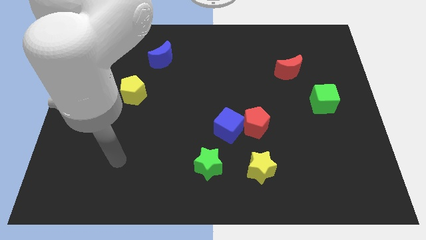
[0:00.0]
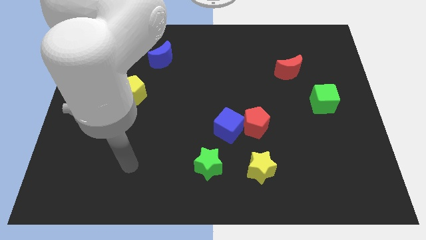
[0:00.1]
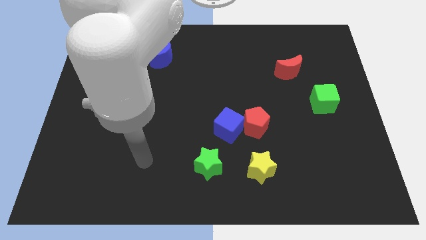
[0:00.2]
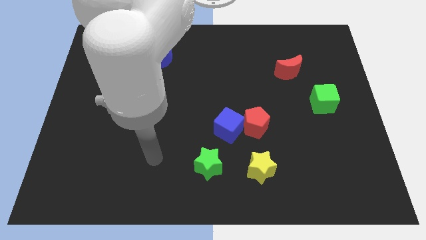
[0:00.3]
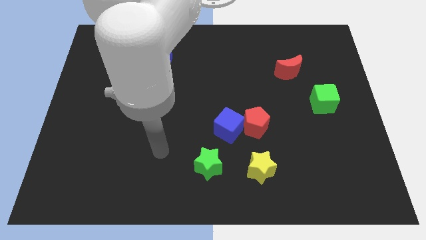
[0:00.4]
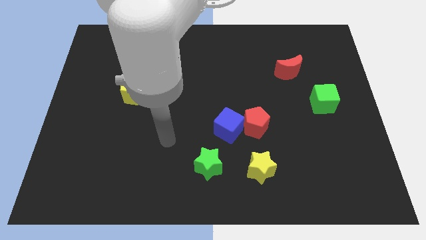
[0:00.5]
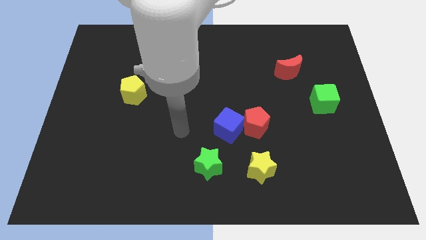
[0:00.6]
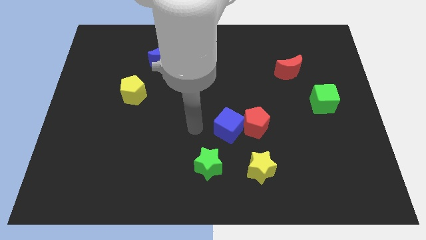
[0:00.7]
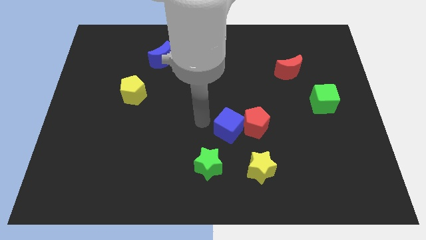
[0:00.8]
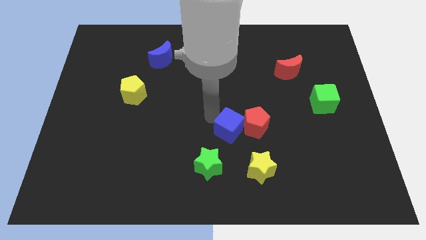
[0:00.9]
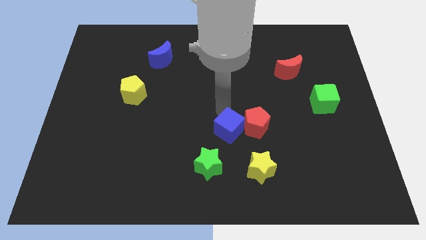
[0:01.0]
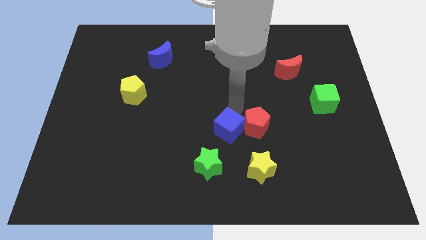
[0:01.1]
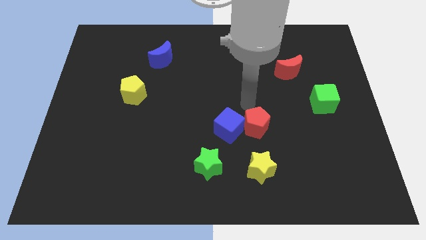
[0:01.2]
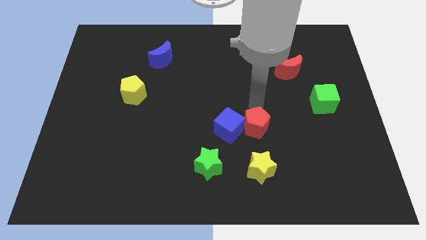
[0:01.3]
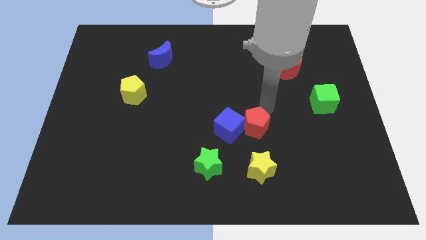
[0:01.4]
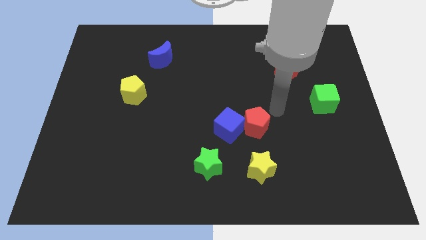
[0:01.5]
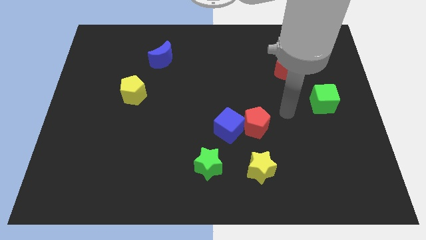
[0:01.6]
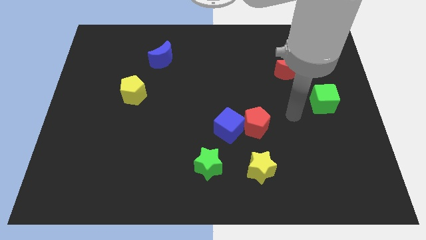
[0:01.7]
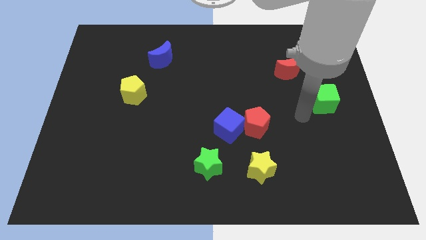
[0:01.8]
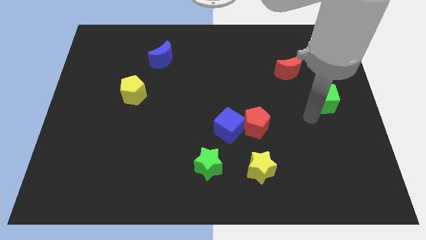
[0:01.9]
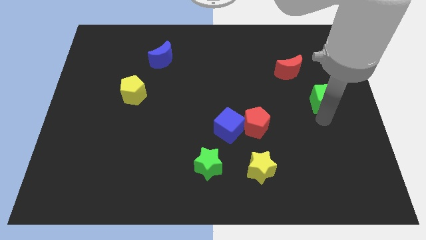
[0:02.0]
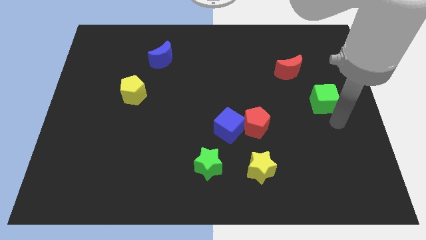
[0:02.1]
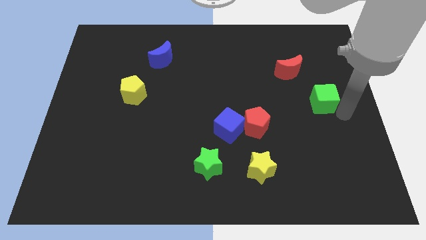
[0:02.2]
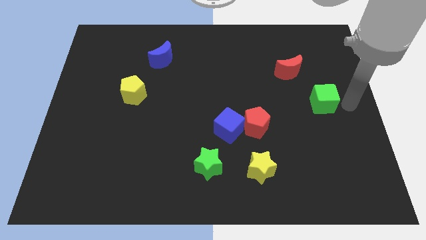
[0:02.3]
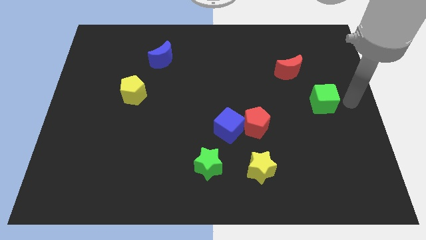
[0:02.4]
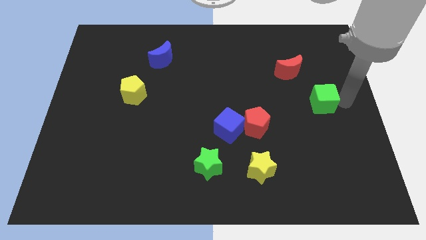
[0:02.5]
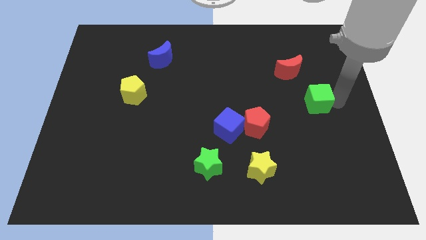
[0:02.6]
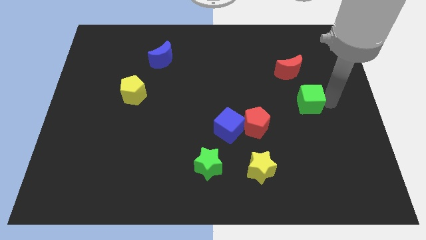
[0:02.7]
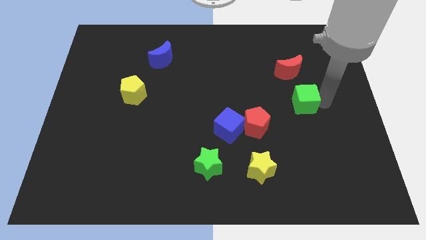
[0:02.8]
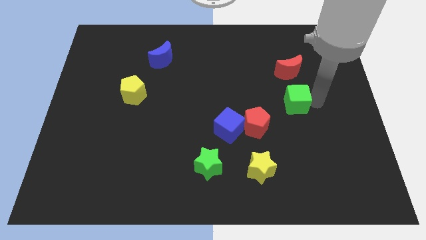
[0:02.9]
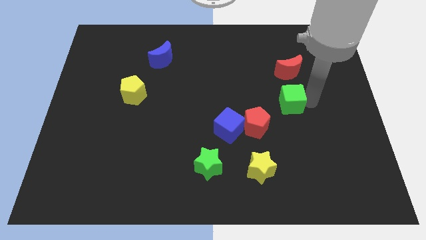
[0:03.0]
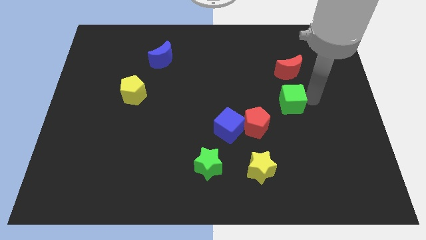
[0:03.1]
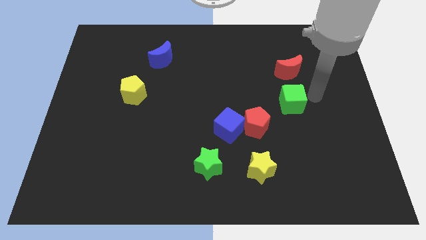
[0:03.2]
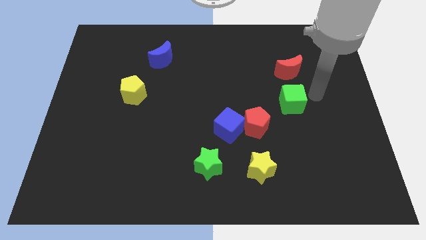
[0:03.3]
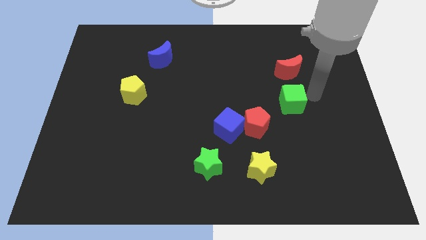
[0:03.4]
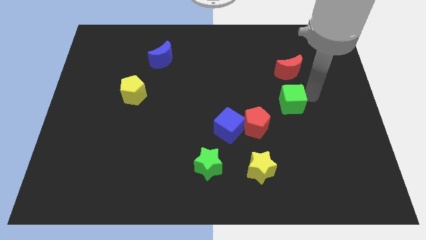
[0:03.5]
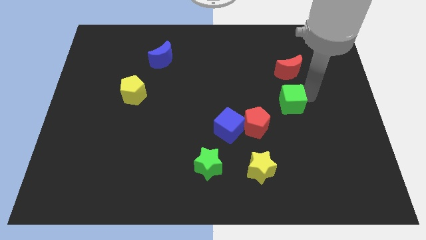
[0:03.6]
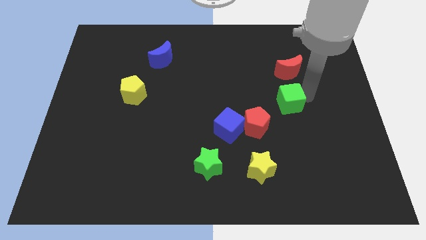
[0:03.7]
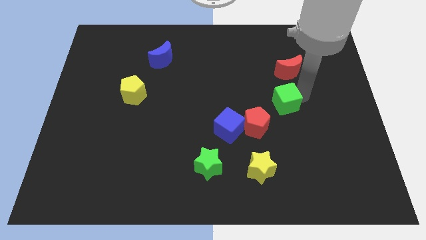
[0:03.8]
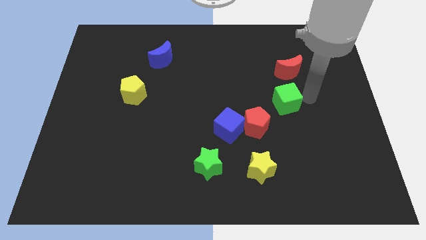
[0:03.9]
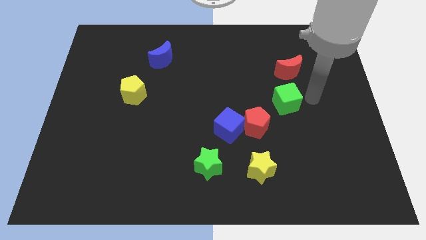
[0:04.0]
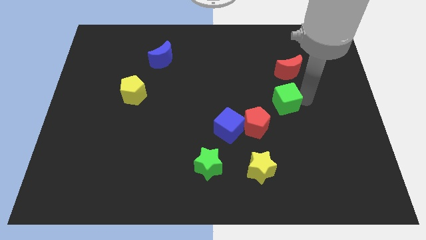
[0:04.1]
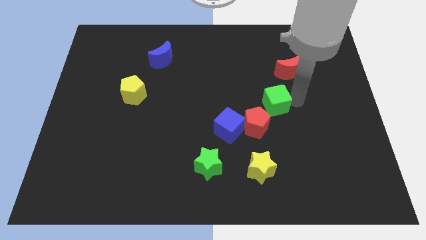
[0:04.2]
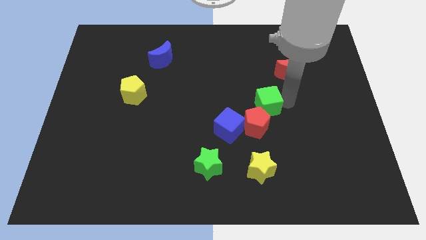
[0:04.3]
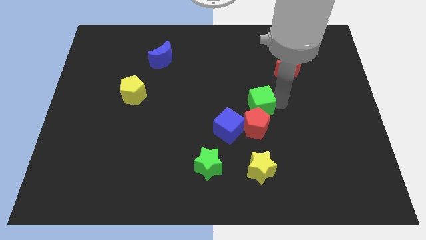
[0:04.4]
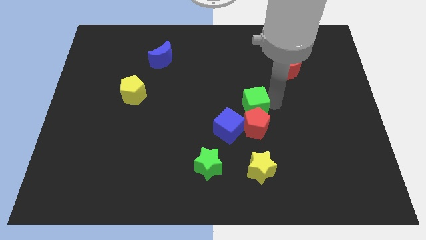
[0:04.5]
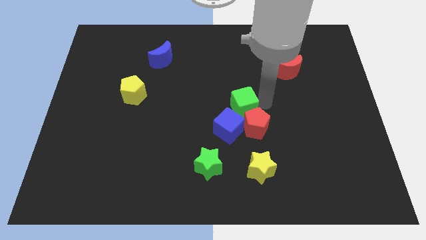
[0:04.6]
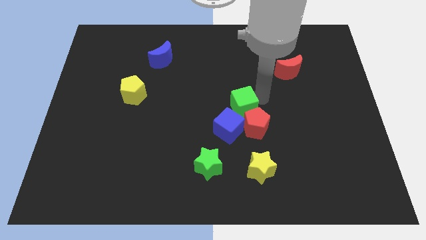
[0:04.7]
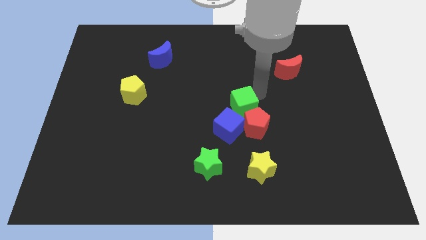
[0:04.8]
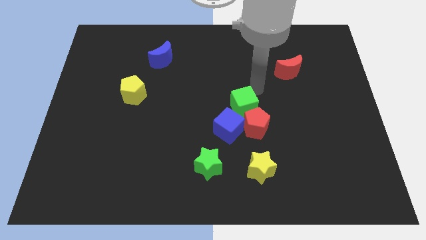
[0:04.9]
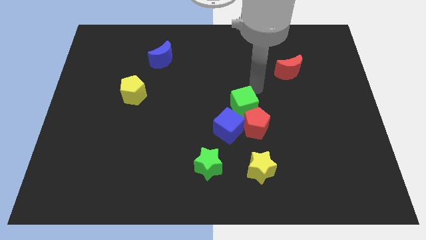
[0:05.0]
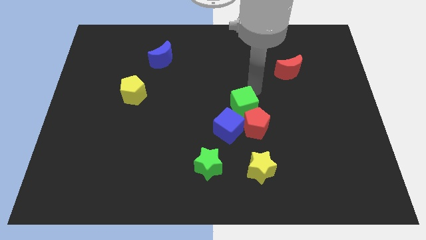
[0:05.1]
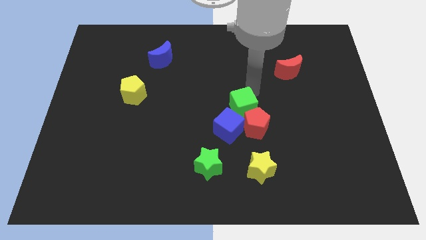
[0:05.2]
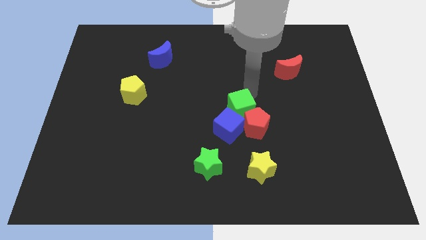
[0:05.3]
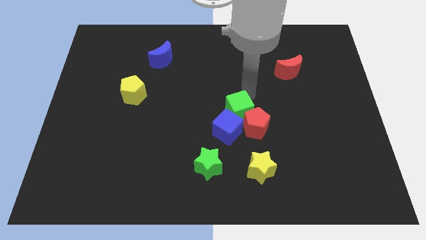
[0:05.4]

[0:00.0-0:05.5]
push the green cube towards the blue cube

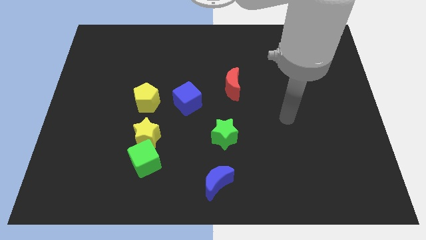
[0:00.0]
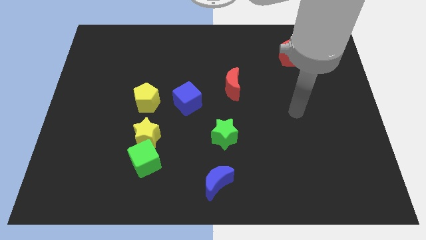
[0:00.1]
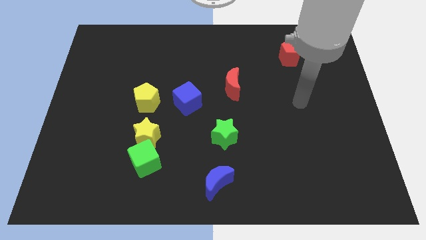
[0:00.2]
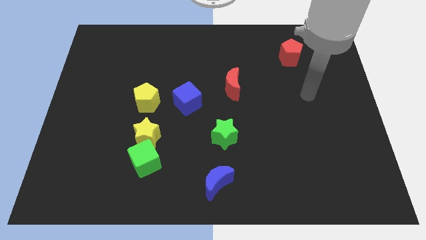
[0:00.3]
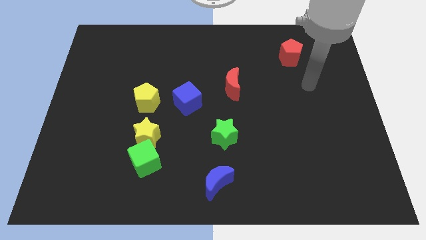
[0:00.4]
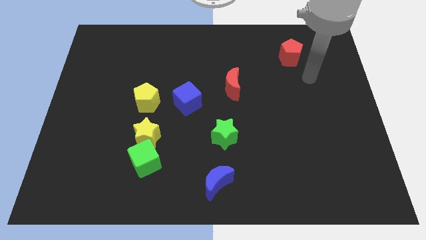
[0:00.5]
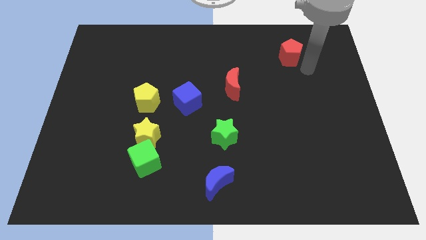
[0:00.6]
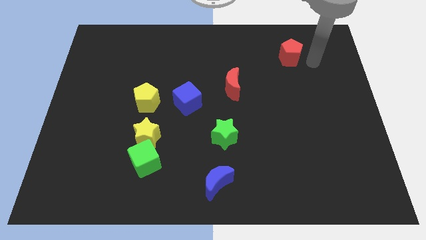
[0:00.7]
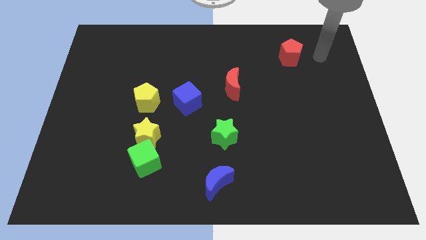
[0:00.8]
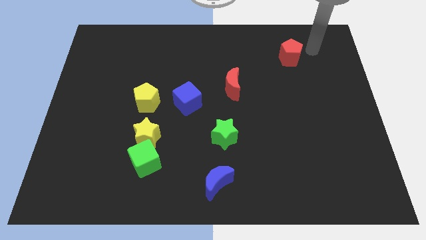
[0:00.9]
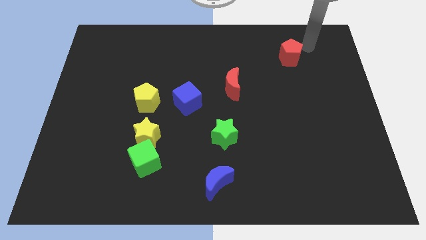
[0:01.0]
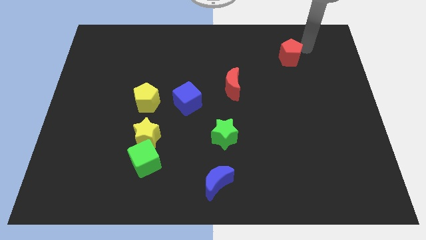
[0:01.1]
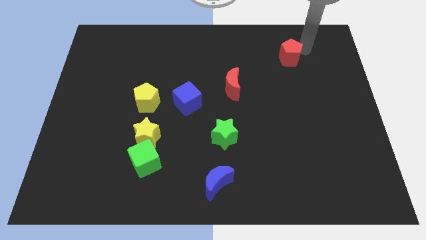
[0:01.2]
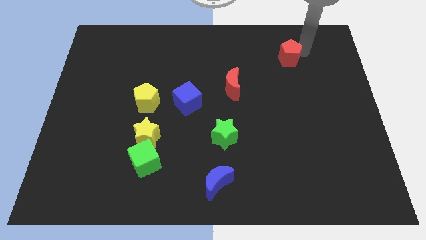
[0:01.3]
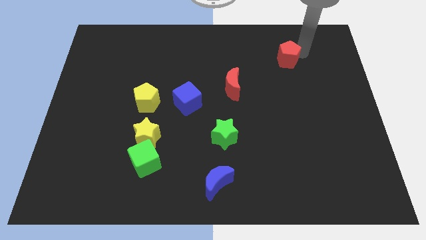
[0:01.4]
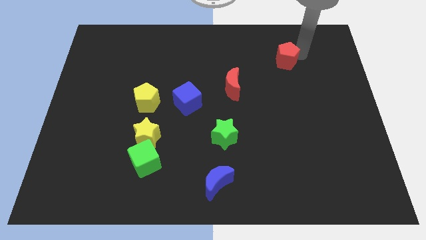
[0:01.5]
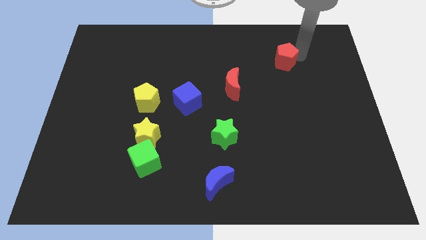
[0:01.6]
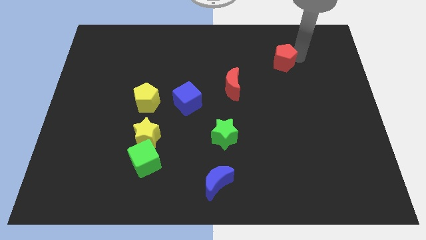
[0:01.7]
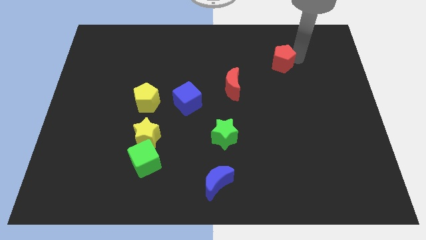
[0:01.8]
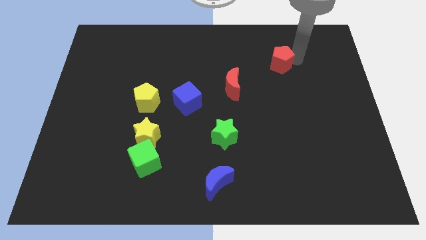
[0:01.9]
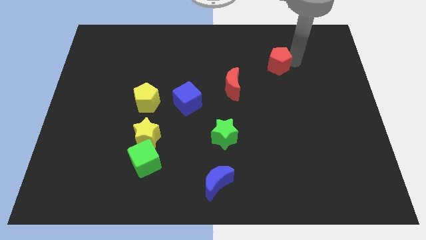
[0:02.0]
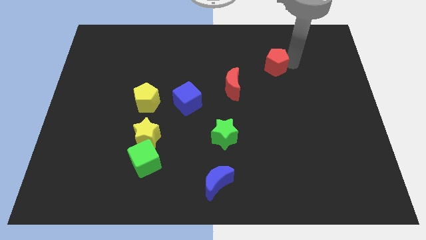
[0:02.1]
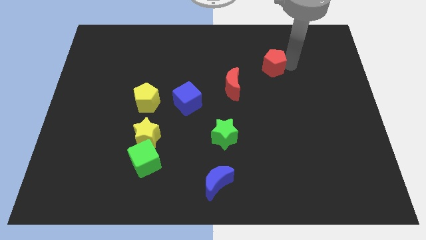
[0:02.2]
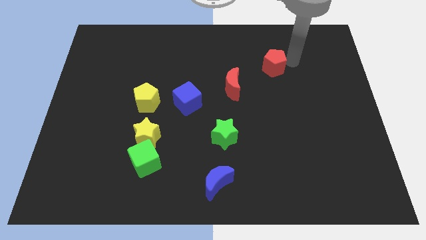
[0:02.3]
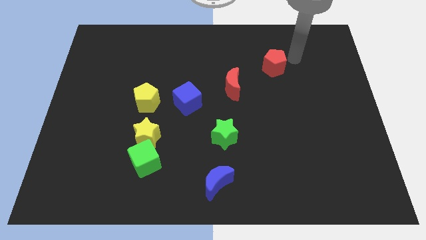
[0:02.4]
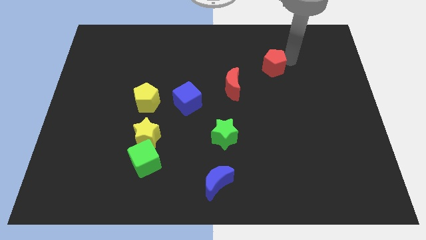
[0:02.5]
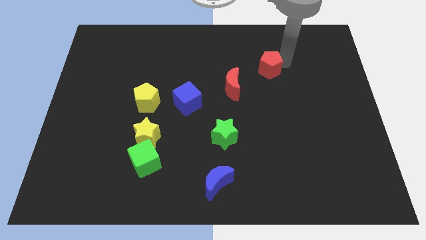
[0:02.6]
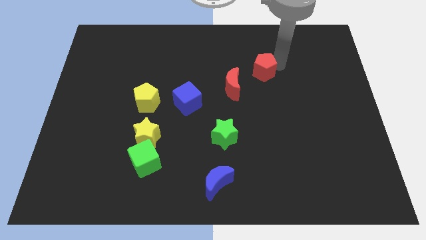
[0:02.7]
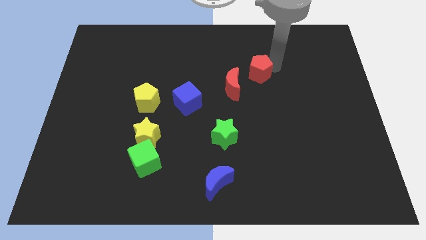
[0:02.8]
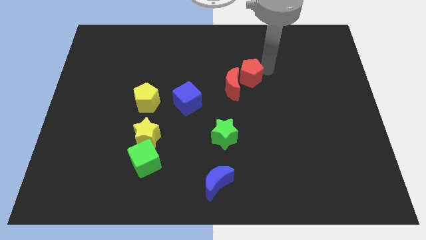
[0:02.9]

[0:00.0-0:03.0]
push the red pentagon close to the red moon
